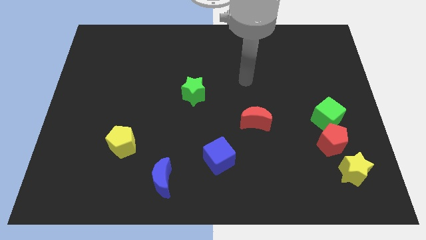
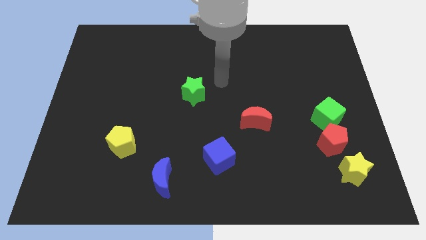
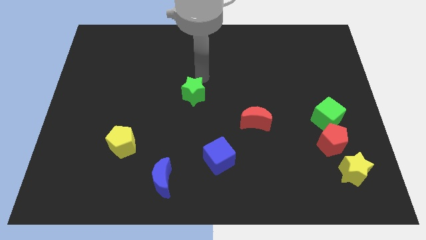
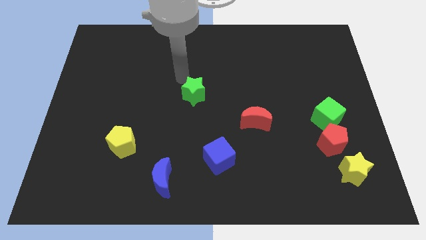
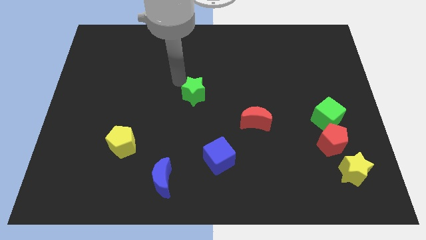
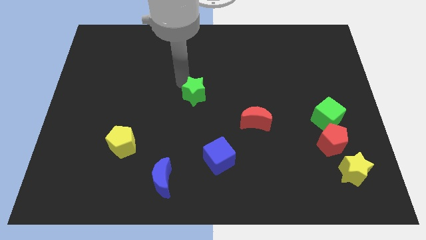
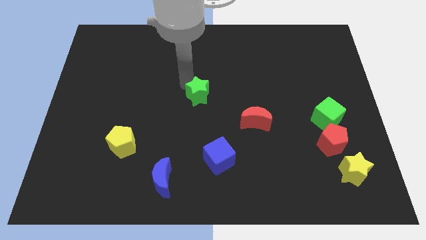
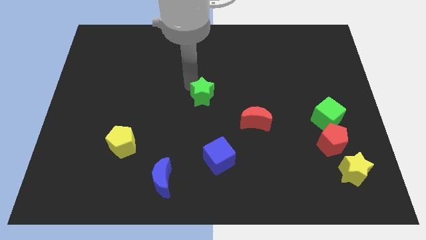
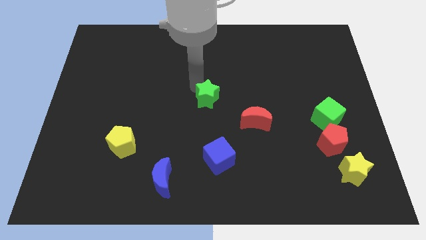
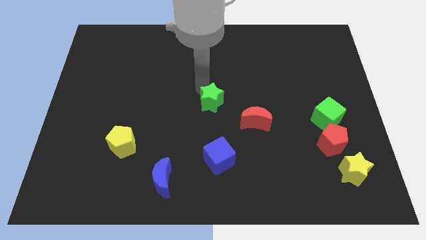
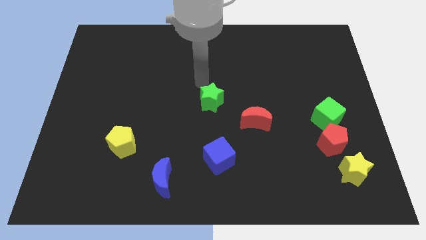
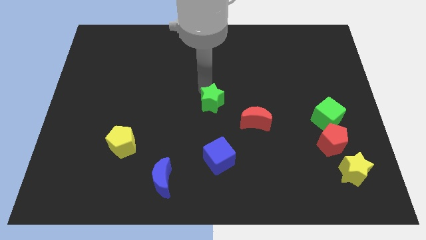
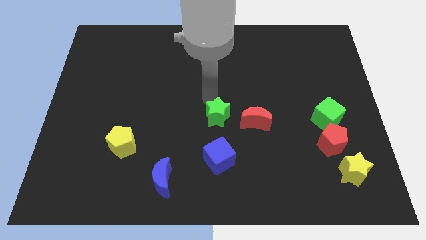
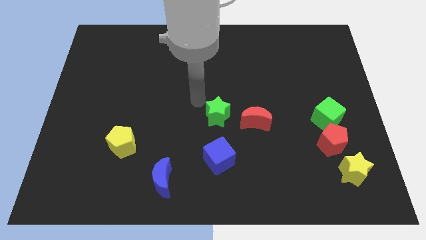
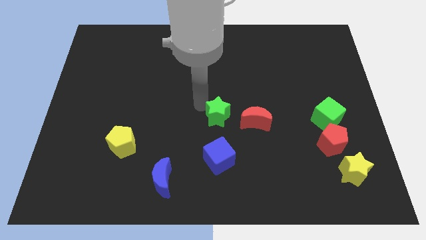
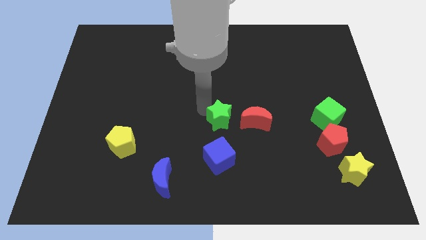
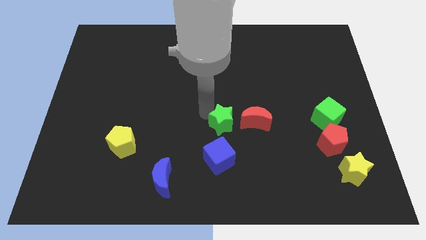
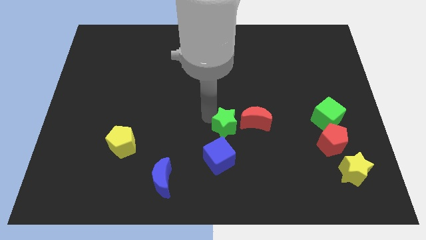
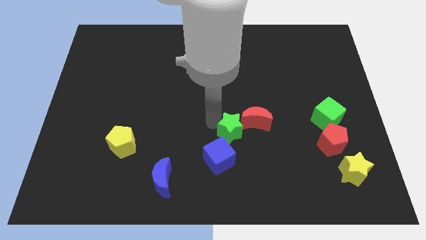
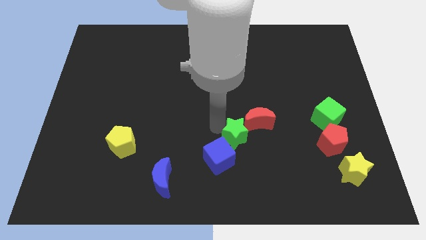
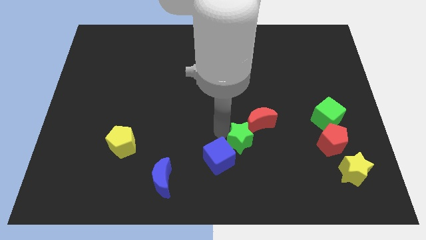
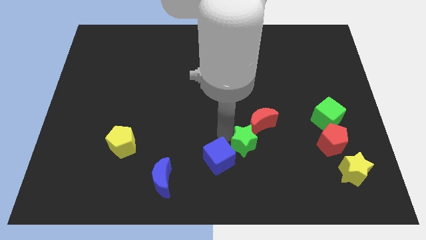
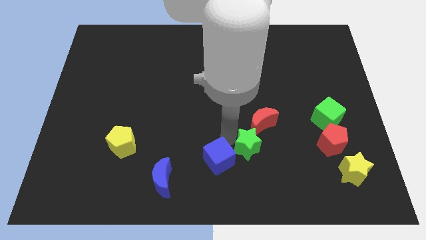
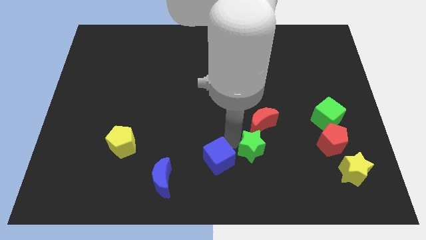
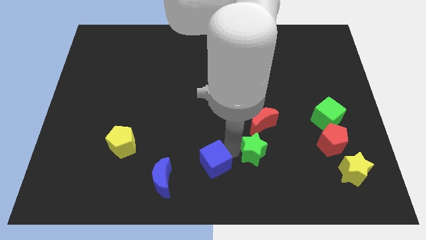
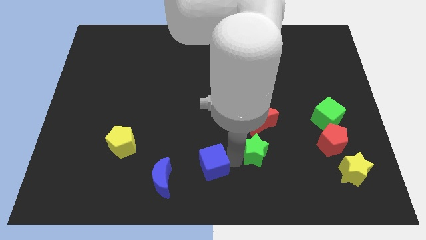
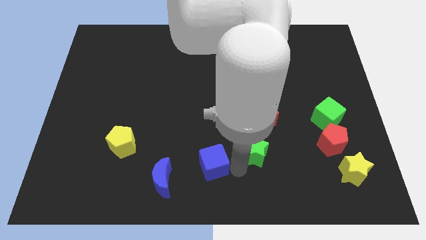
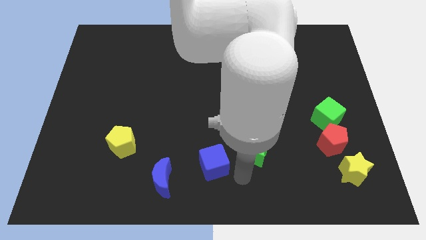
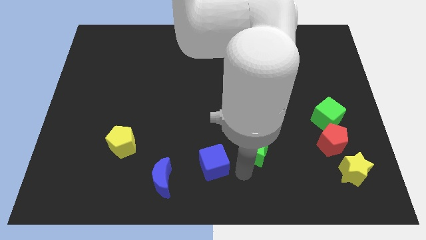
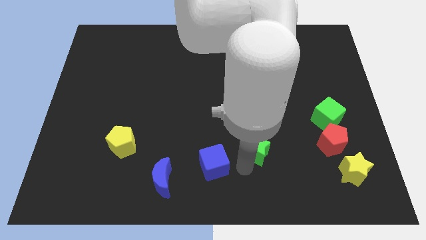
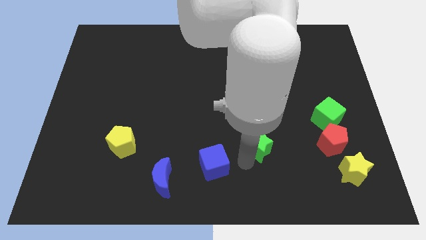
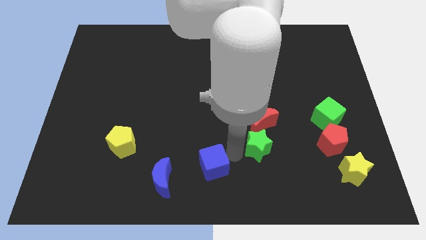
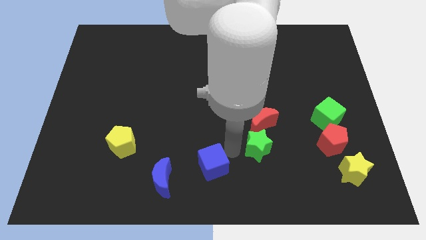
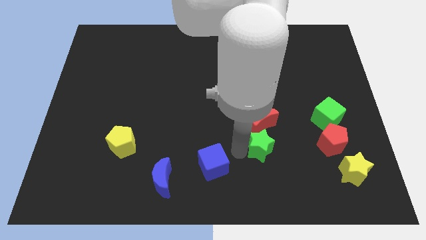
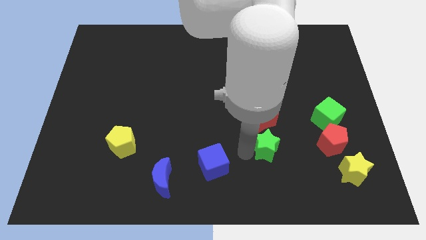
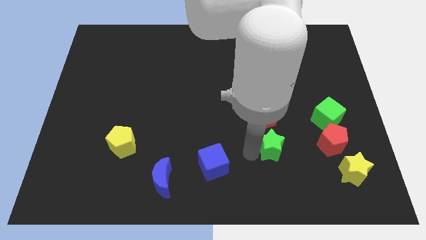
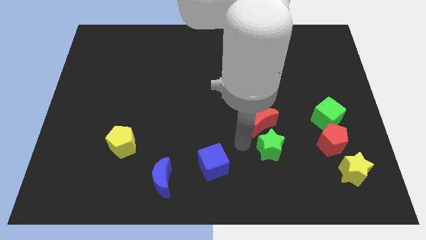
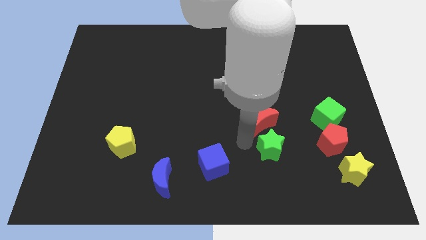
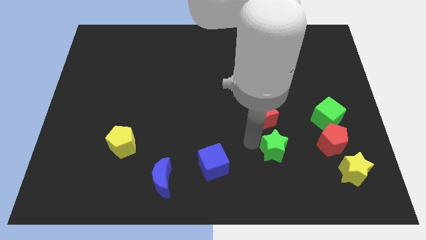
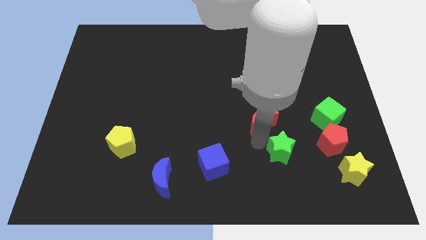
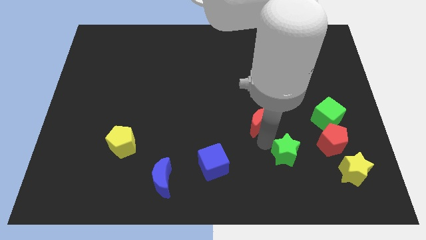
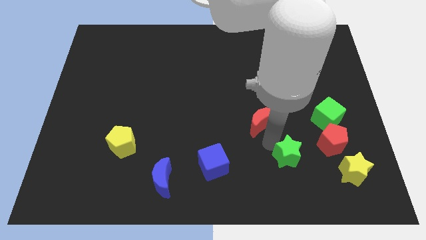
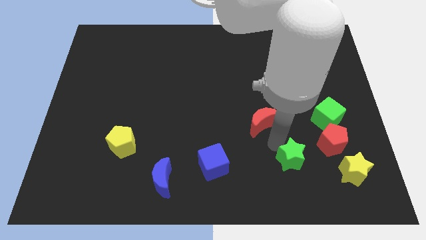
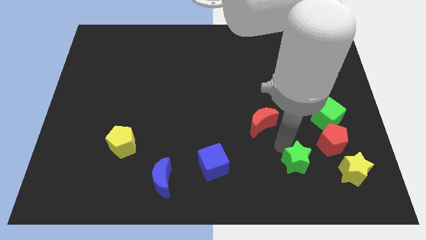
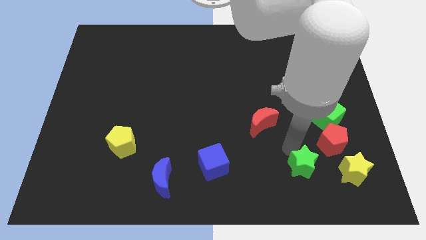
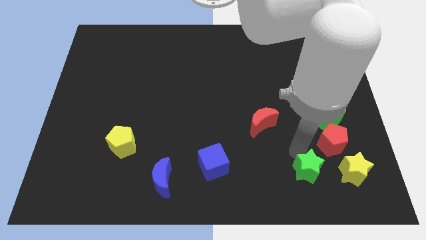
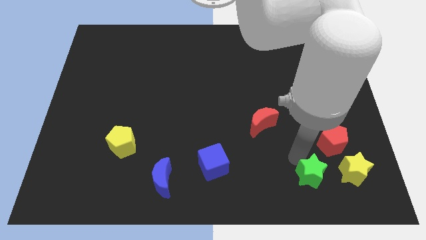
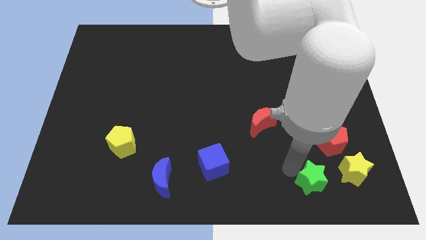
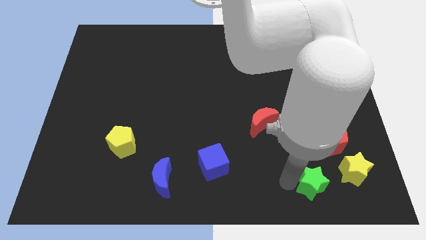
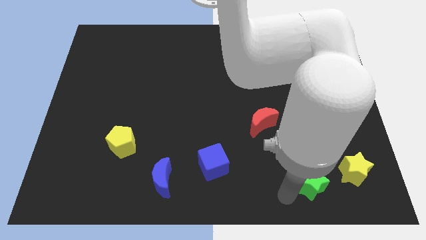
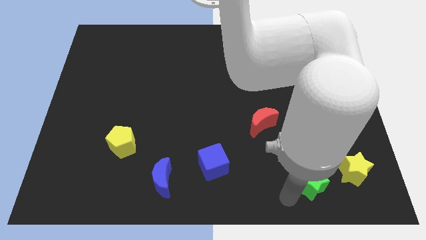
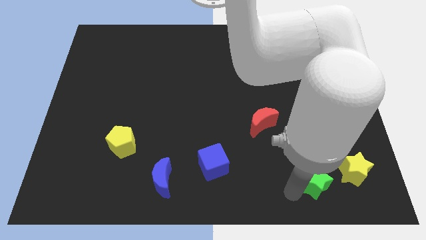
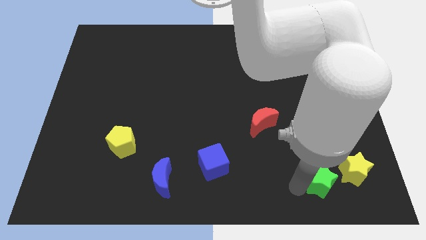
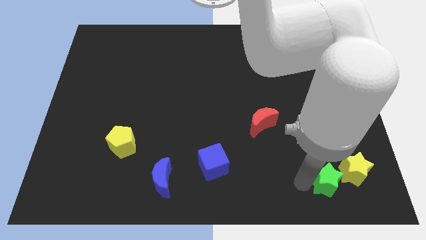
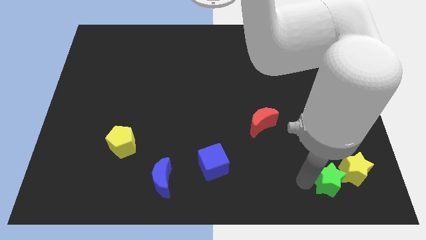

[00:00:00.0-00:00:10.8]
push the green star next to the yellow star

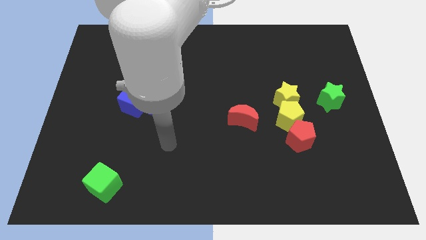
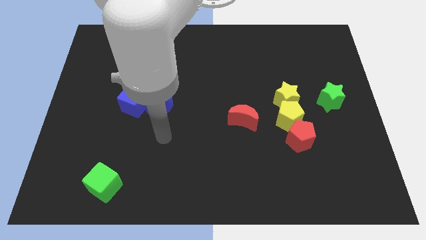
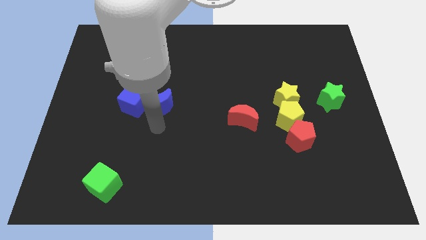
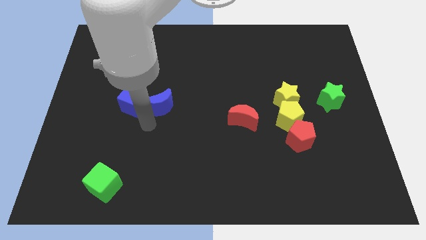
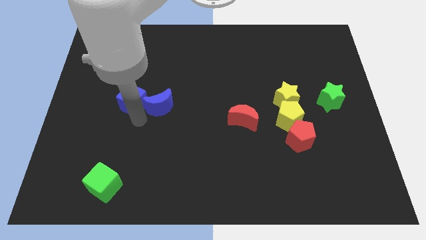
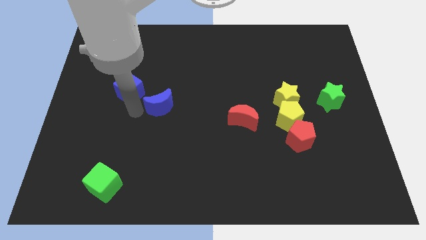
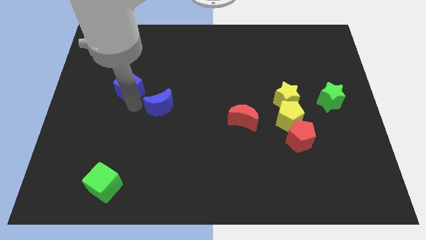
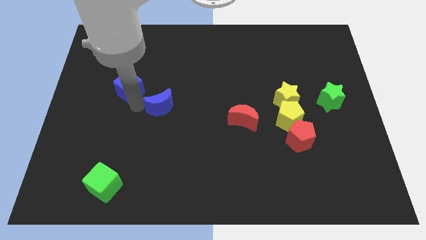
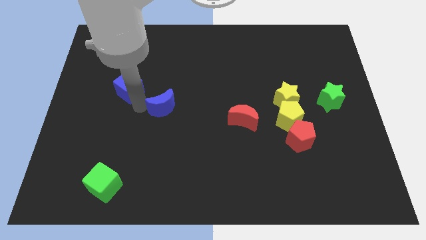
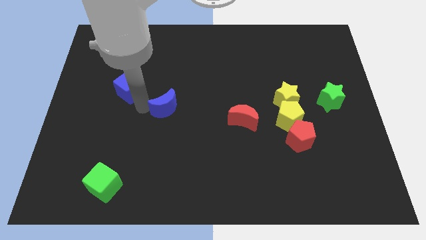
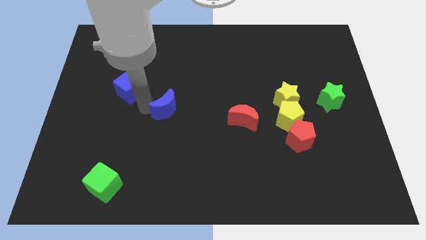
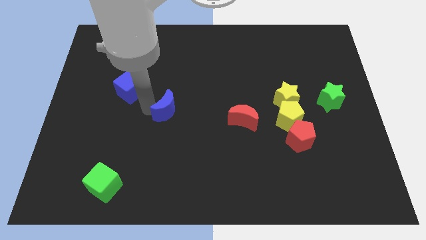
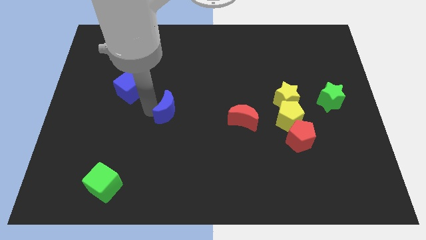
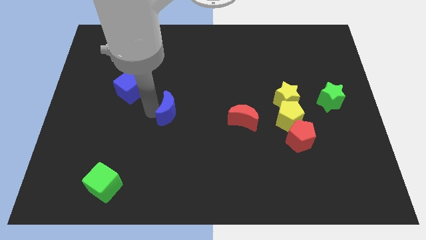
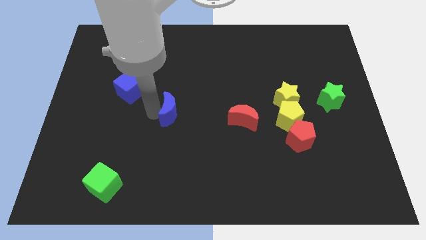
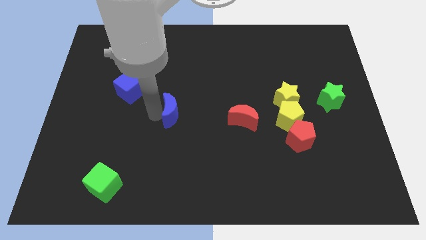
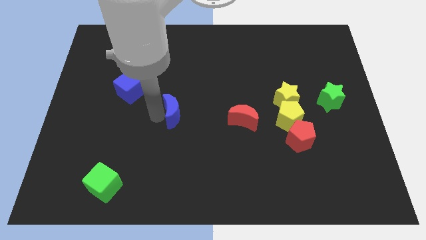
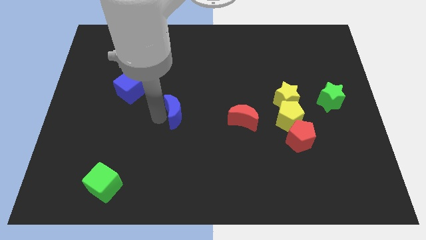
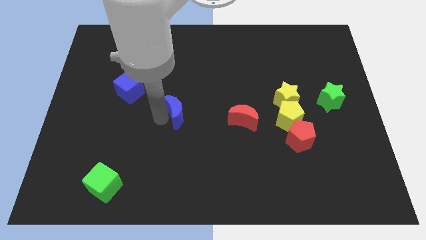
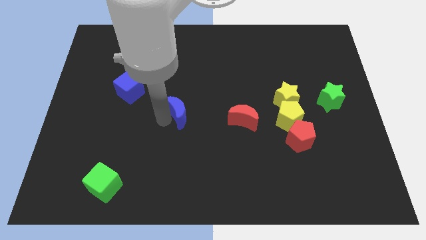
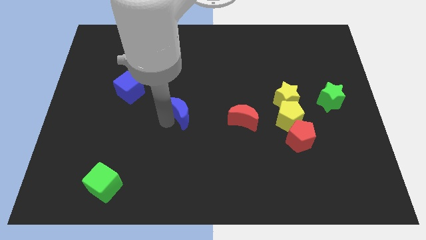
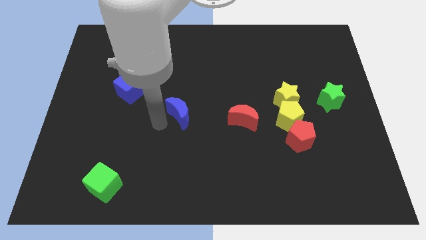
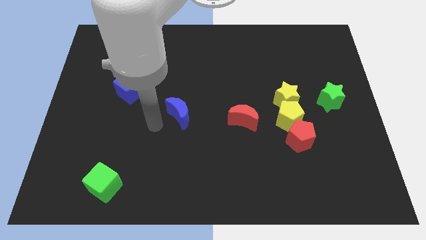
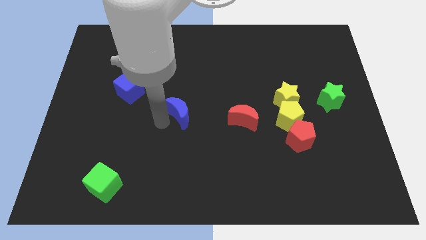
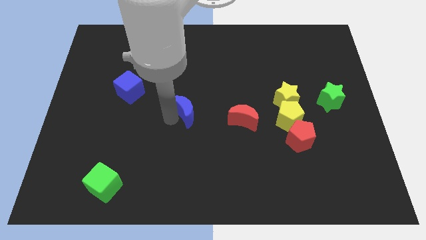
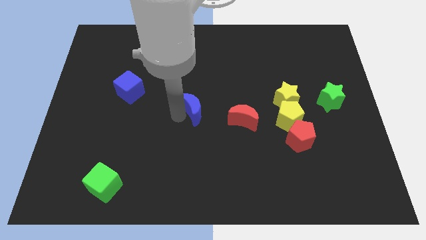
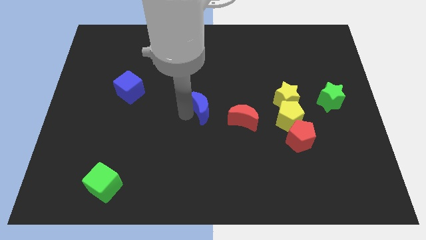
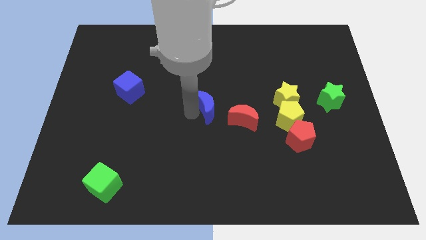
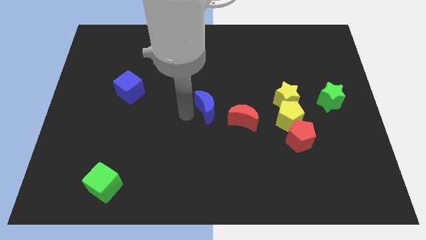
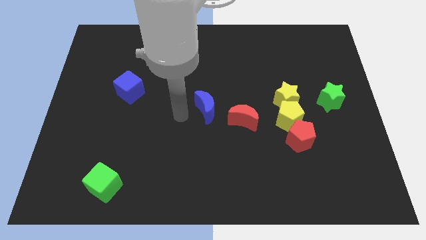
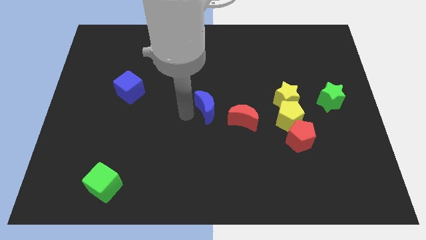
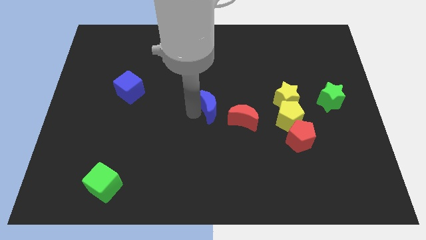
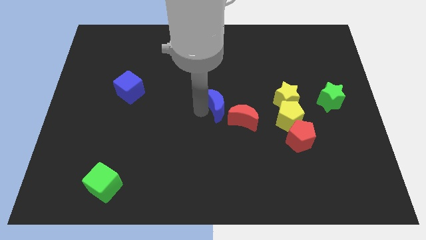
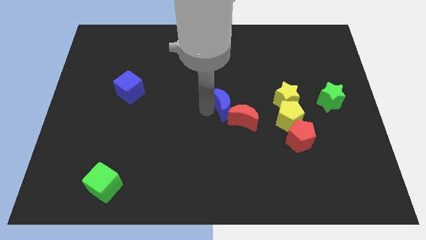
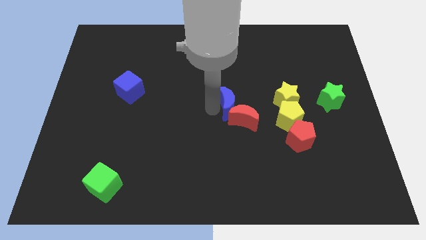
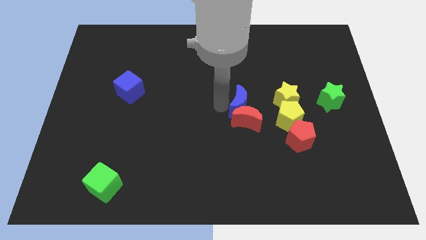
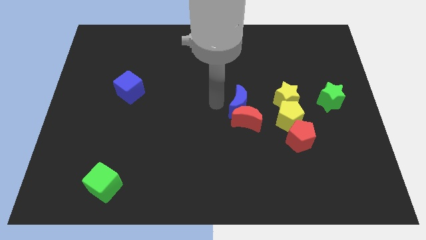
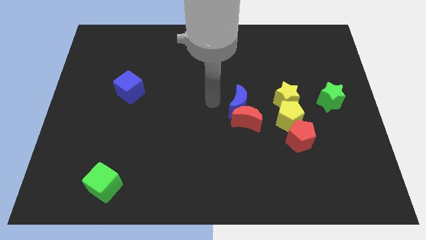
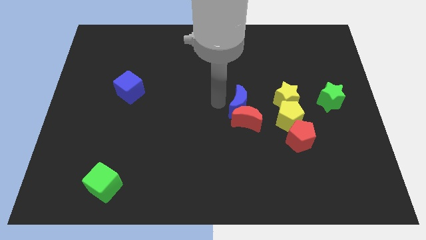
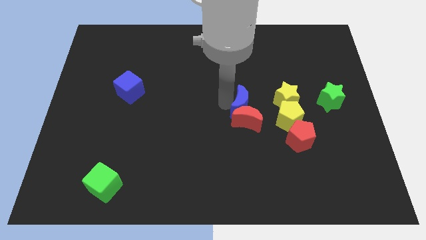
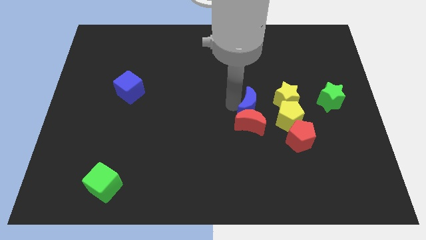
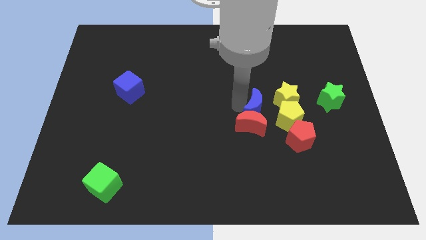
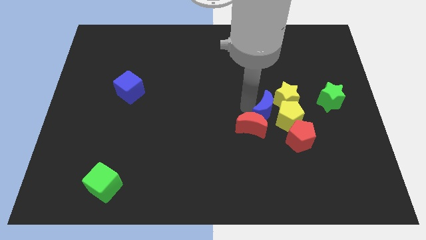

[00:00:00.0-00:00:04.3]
push the blue moon next to the yellow pentagon
